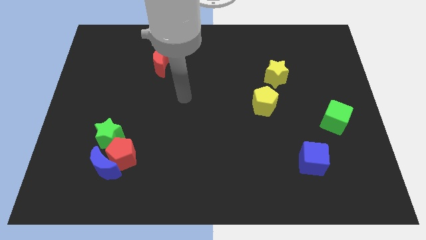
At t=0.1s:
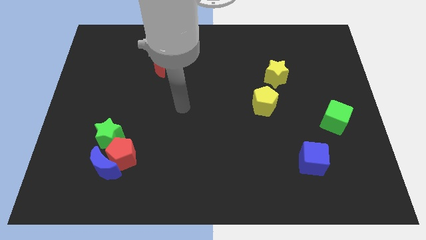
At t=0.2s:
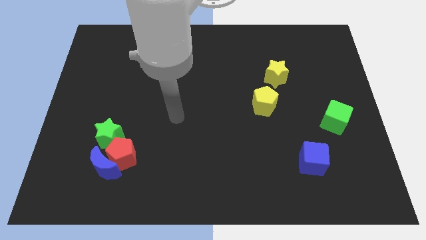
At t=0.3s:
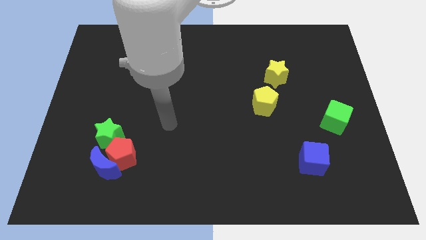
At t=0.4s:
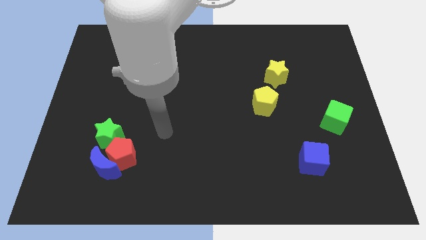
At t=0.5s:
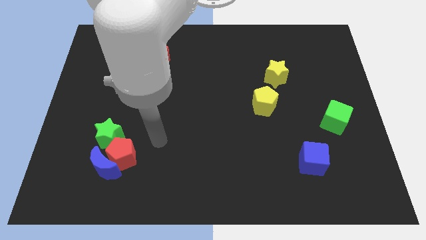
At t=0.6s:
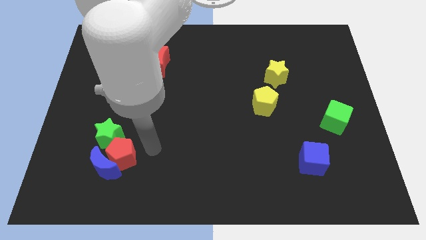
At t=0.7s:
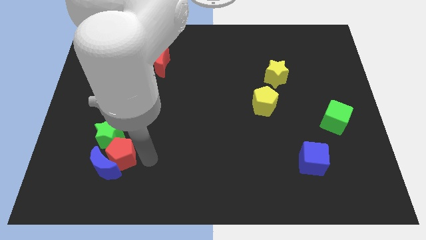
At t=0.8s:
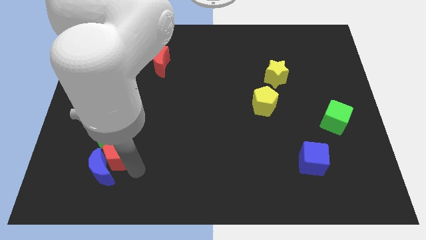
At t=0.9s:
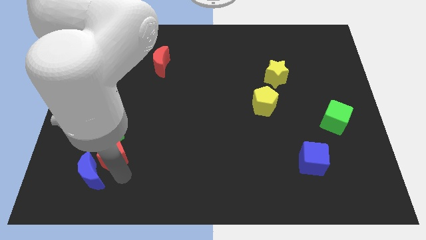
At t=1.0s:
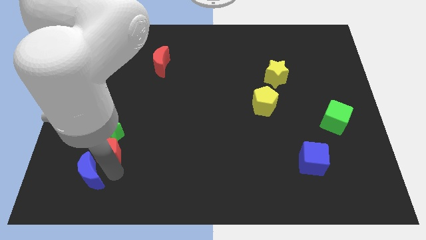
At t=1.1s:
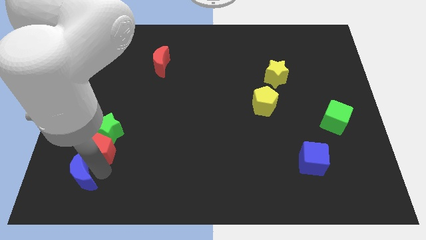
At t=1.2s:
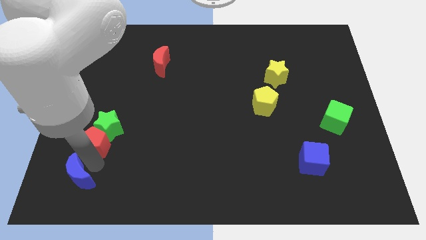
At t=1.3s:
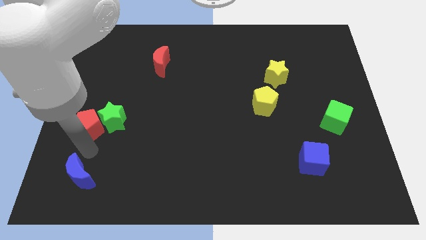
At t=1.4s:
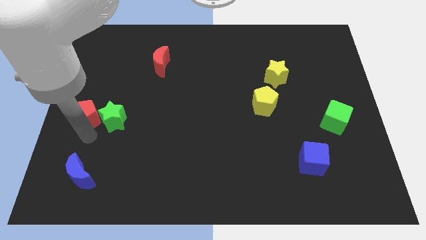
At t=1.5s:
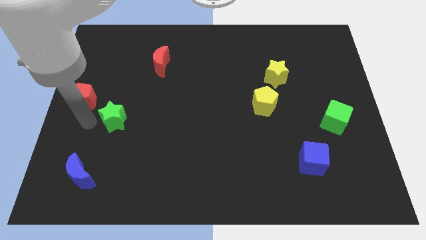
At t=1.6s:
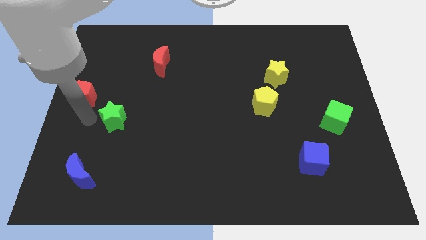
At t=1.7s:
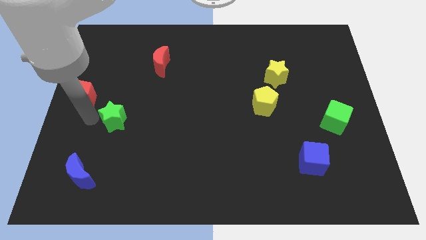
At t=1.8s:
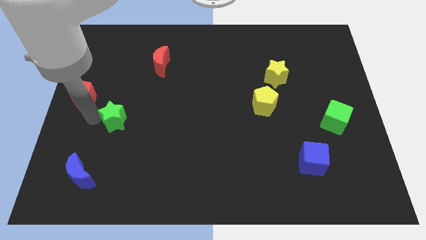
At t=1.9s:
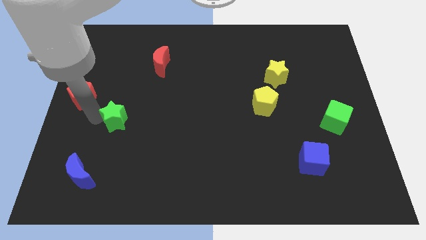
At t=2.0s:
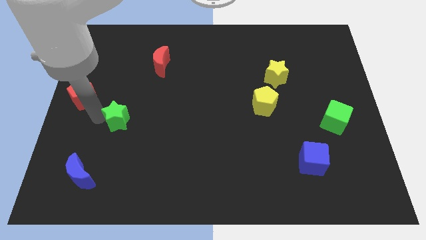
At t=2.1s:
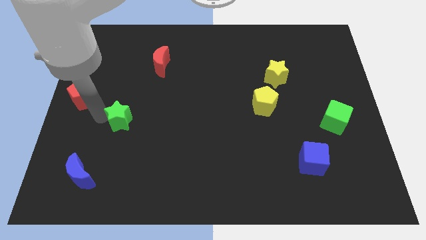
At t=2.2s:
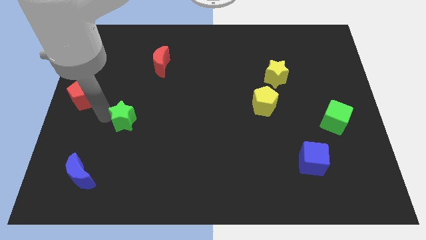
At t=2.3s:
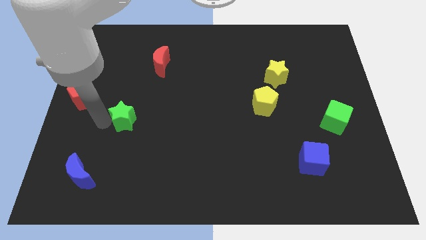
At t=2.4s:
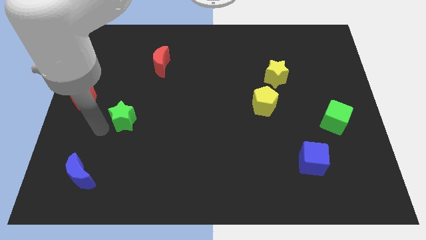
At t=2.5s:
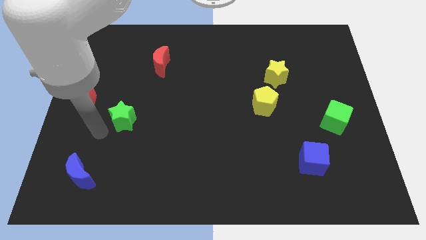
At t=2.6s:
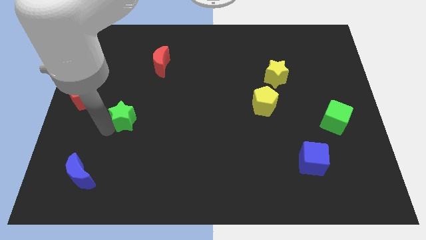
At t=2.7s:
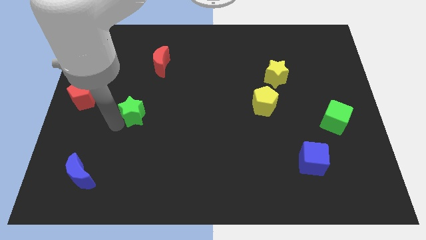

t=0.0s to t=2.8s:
move the green star upwards and then to the right a little

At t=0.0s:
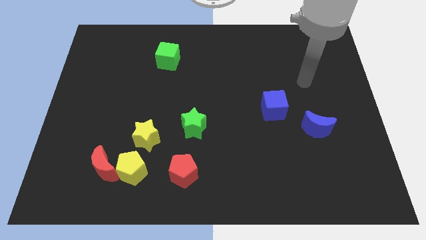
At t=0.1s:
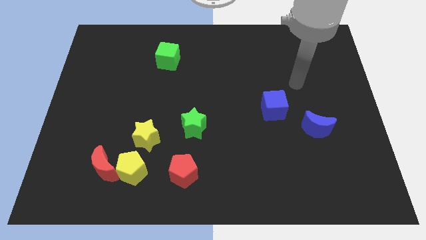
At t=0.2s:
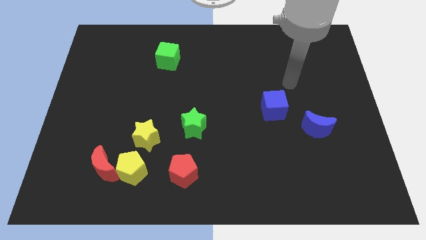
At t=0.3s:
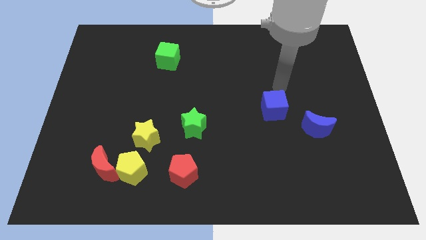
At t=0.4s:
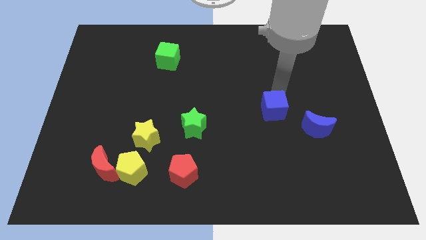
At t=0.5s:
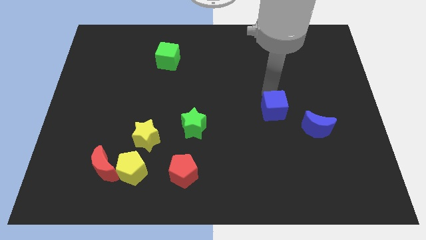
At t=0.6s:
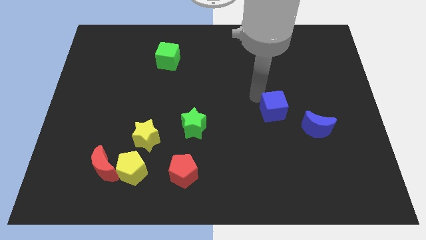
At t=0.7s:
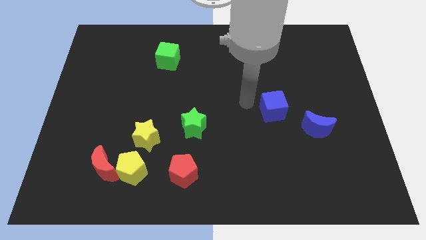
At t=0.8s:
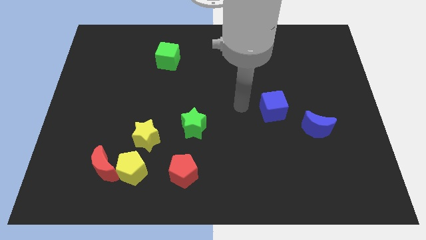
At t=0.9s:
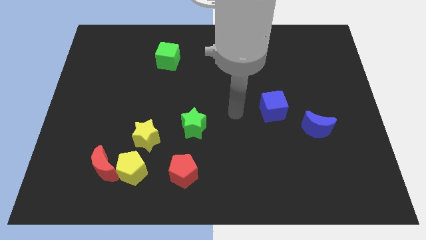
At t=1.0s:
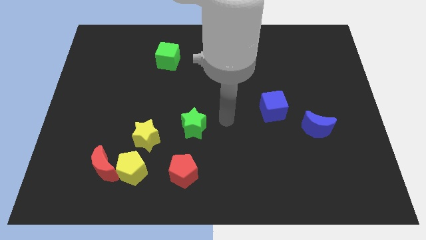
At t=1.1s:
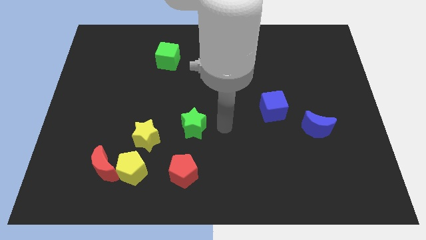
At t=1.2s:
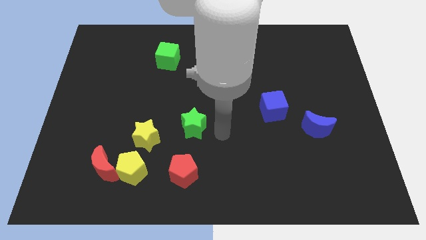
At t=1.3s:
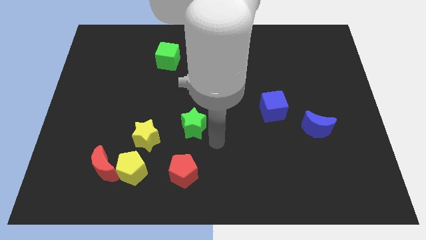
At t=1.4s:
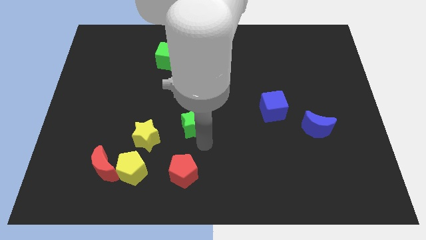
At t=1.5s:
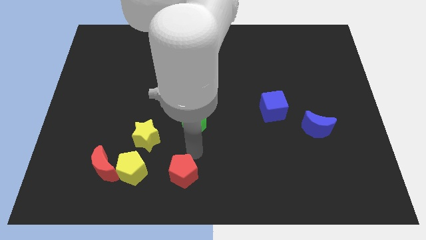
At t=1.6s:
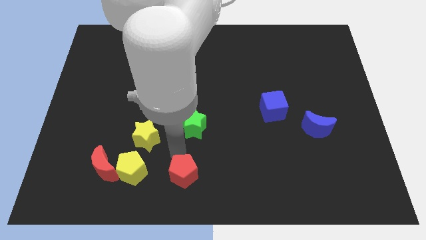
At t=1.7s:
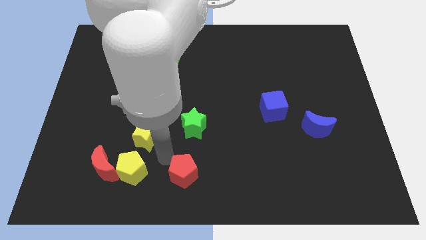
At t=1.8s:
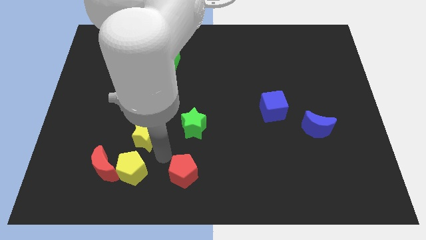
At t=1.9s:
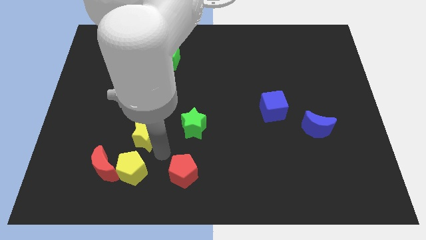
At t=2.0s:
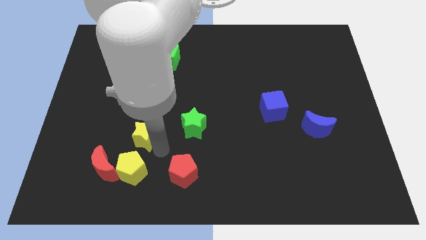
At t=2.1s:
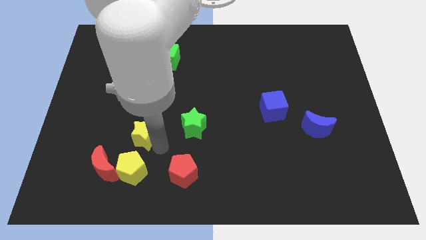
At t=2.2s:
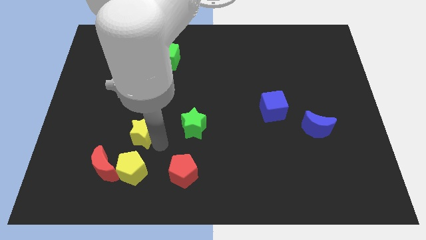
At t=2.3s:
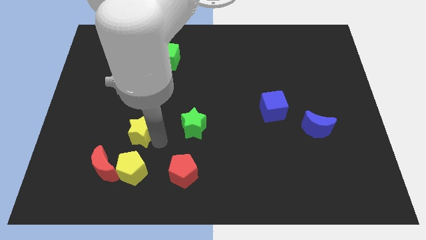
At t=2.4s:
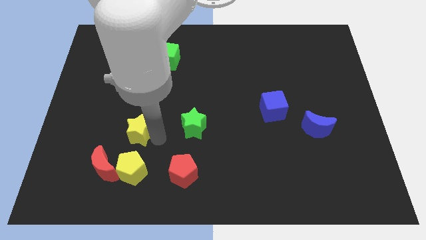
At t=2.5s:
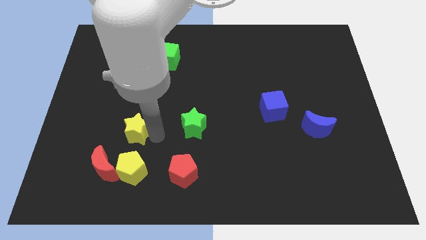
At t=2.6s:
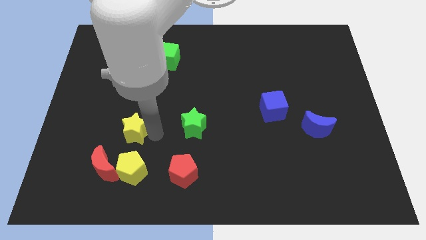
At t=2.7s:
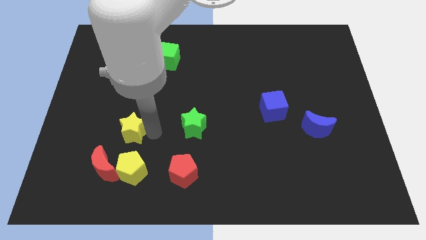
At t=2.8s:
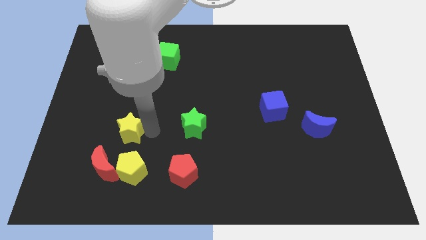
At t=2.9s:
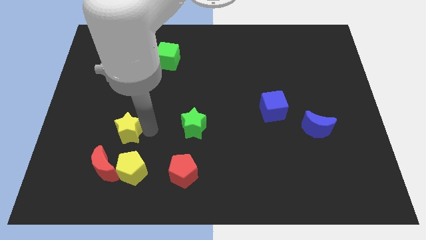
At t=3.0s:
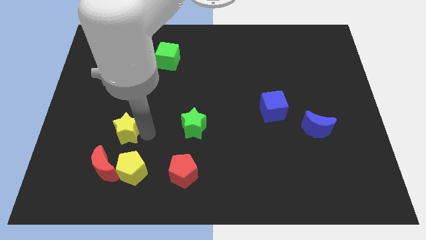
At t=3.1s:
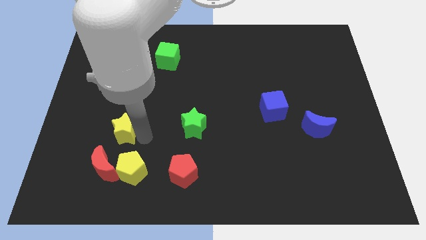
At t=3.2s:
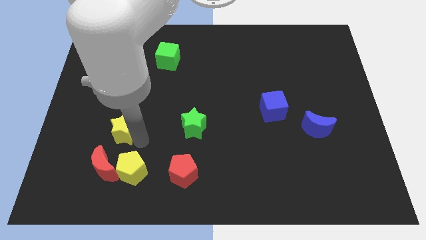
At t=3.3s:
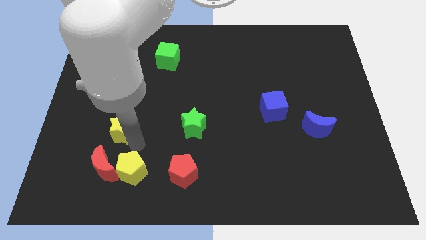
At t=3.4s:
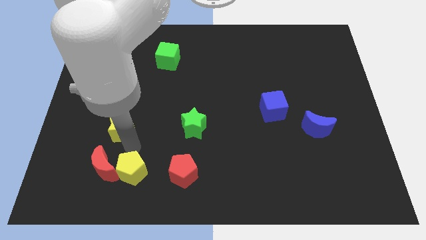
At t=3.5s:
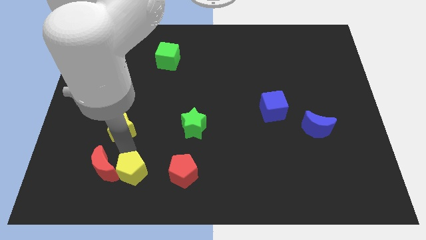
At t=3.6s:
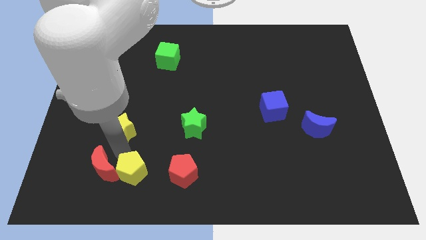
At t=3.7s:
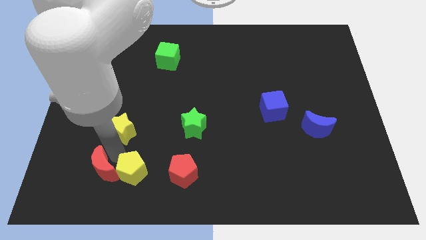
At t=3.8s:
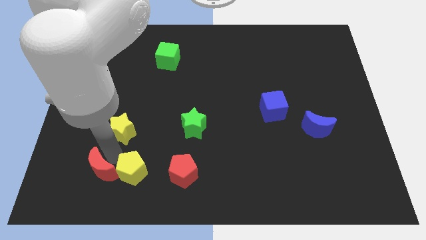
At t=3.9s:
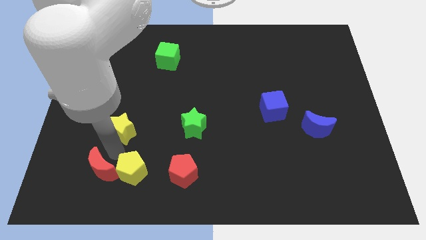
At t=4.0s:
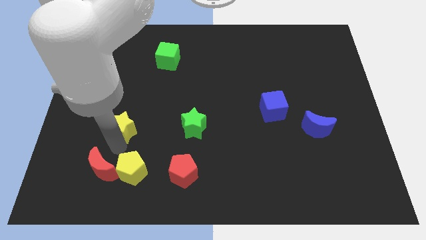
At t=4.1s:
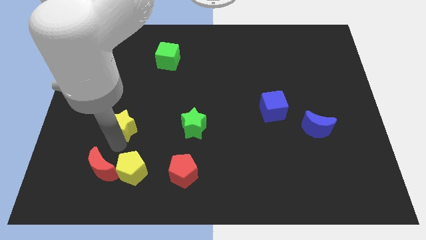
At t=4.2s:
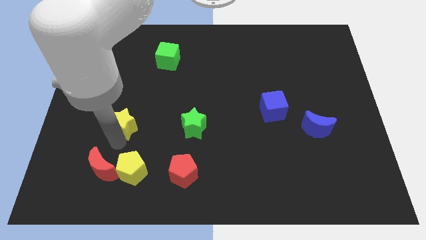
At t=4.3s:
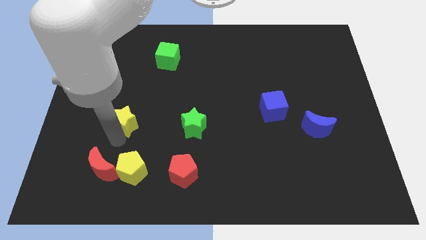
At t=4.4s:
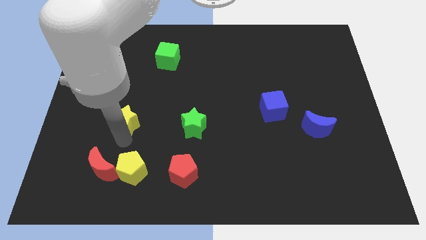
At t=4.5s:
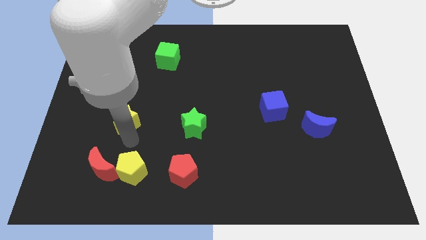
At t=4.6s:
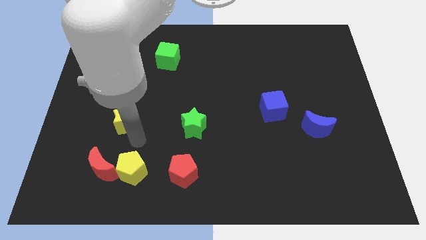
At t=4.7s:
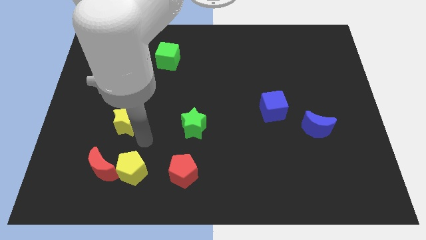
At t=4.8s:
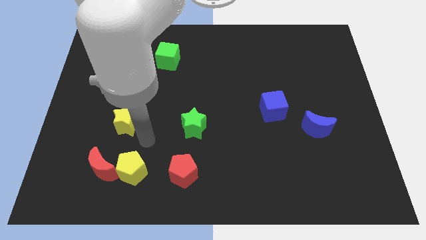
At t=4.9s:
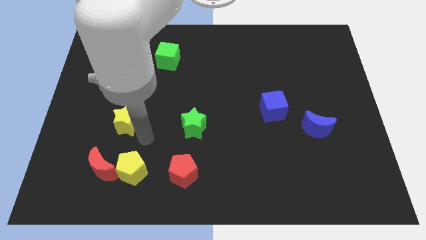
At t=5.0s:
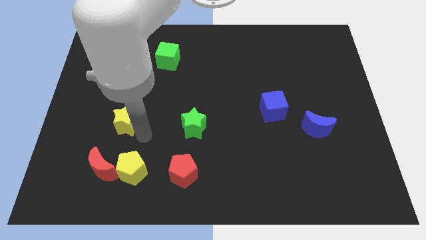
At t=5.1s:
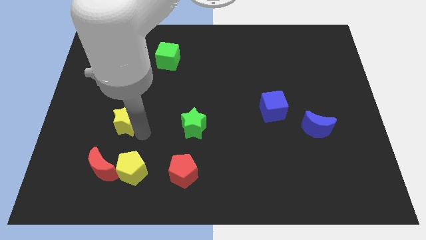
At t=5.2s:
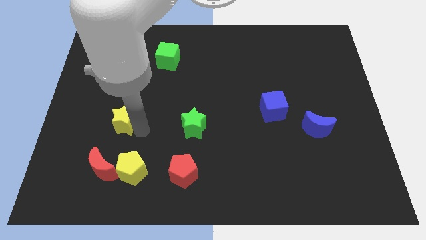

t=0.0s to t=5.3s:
slide the yellow star a little bit up and then left

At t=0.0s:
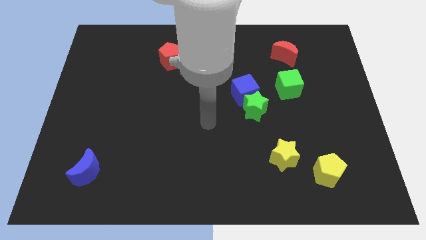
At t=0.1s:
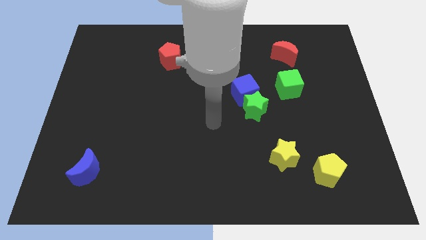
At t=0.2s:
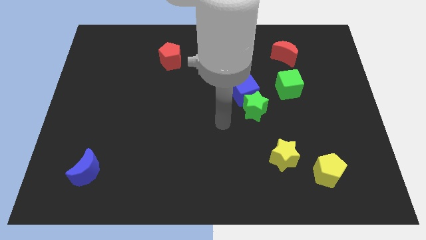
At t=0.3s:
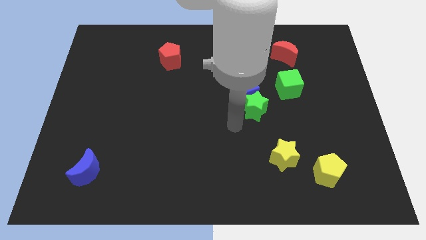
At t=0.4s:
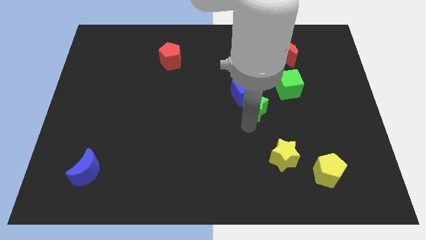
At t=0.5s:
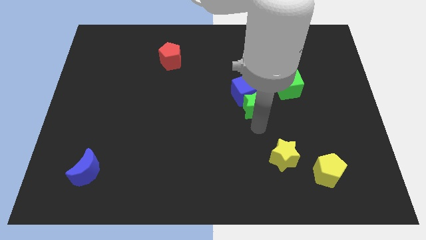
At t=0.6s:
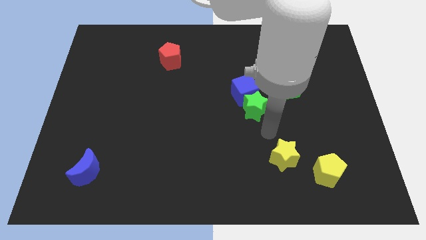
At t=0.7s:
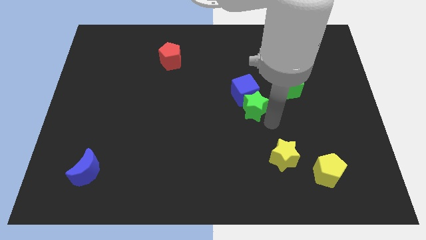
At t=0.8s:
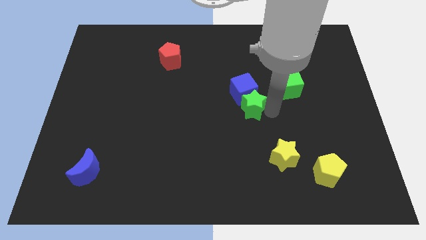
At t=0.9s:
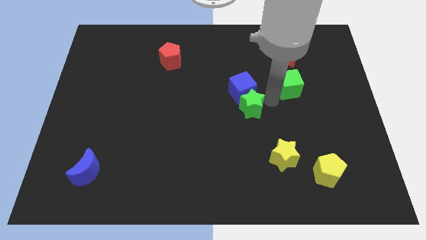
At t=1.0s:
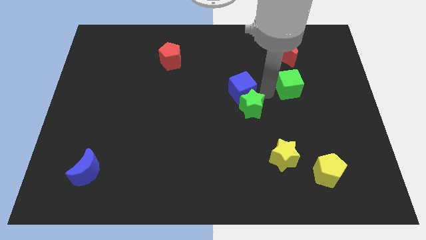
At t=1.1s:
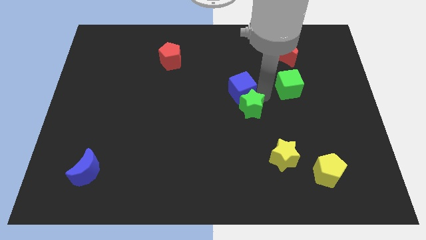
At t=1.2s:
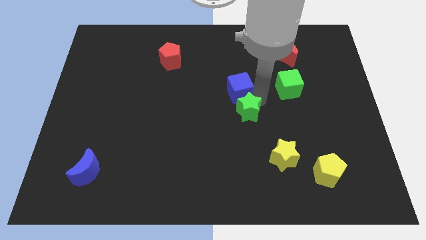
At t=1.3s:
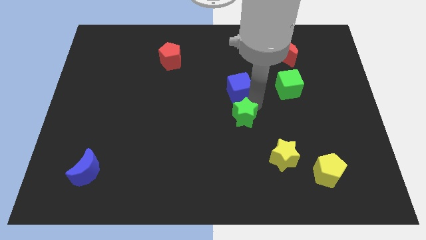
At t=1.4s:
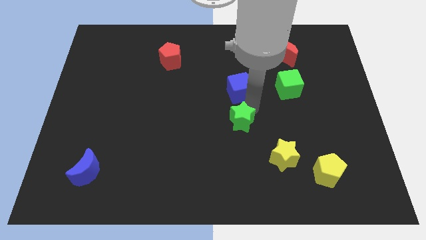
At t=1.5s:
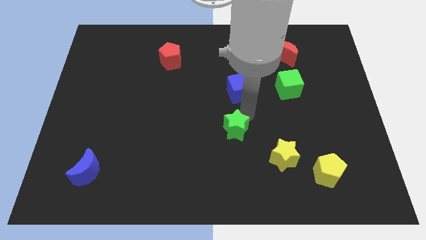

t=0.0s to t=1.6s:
slightly push the green star downwards and then to the left
